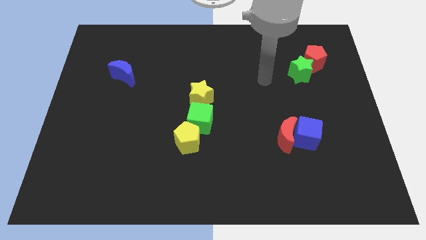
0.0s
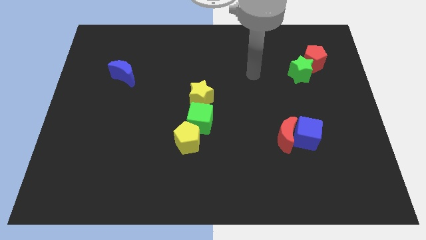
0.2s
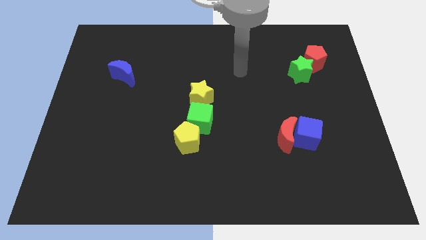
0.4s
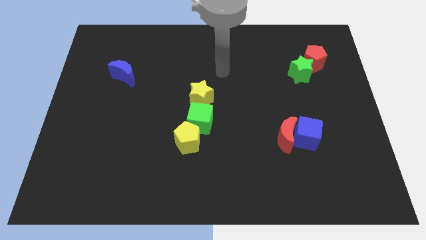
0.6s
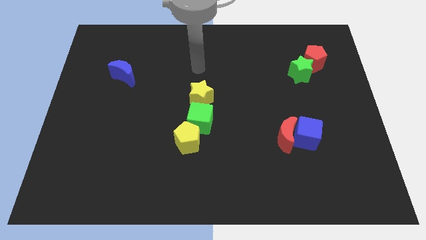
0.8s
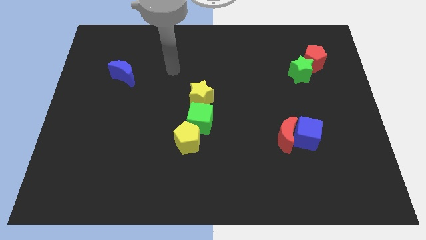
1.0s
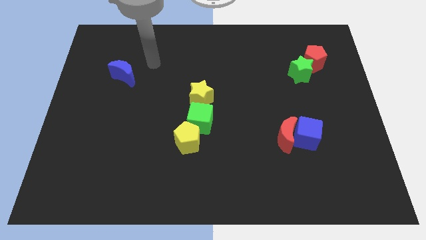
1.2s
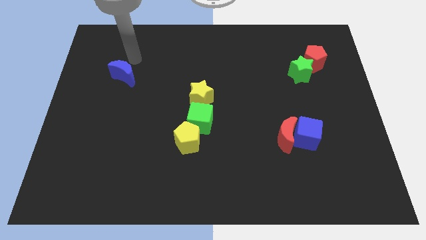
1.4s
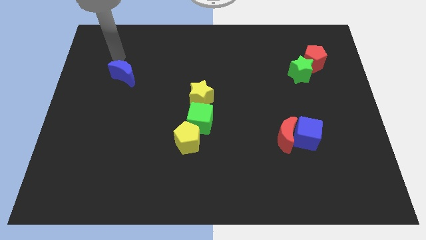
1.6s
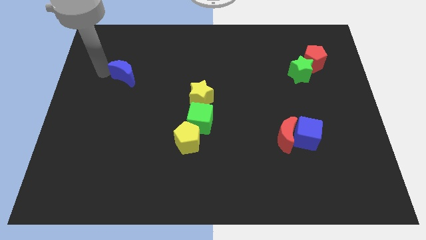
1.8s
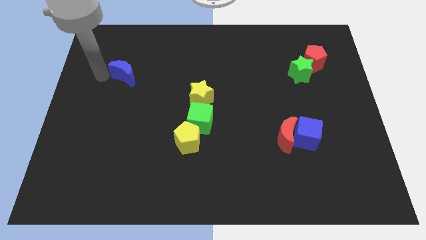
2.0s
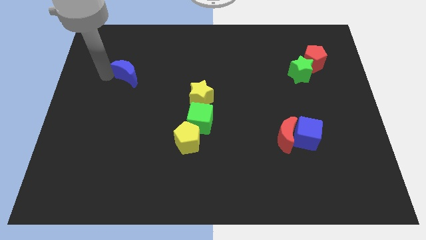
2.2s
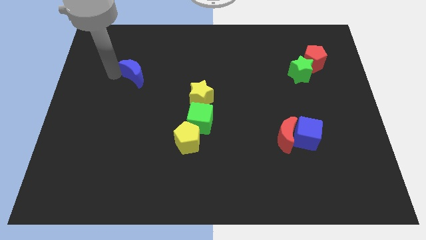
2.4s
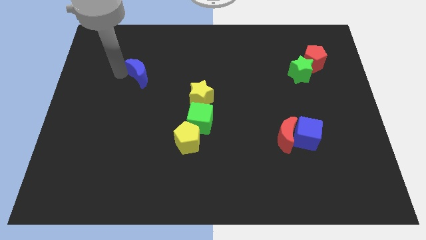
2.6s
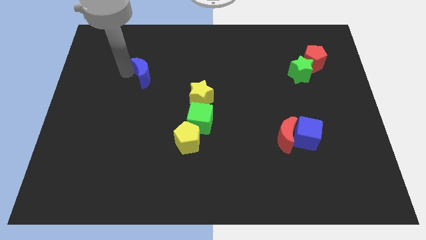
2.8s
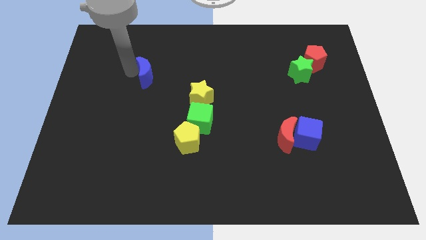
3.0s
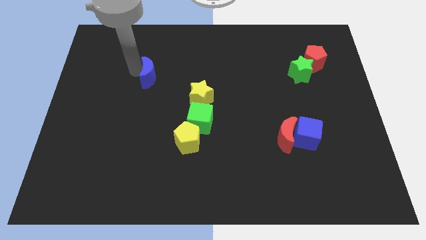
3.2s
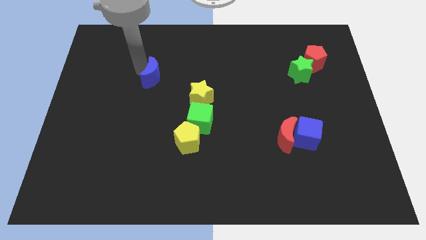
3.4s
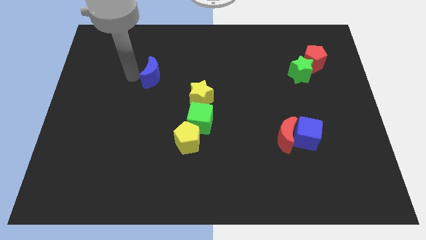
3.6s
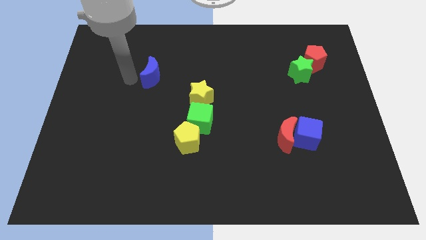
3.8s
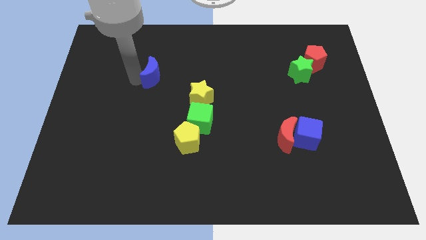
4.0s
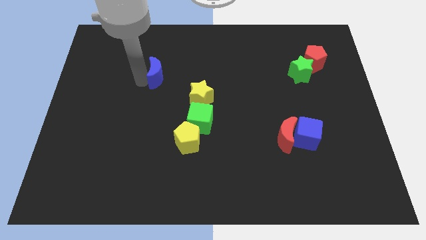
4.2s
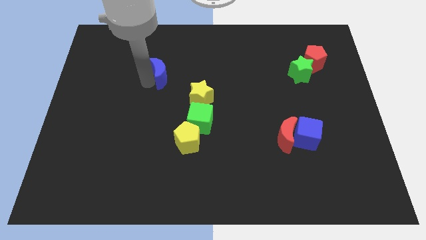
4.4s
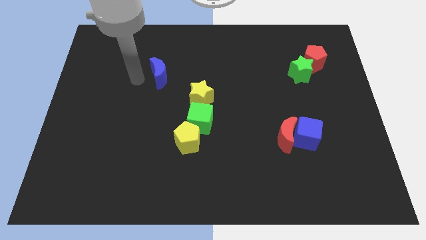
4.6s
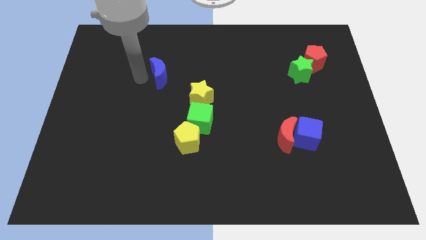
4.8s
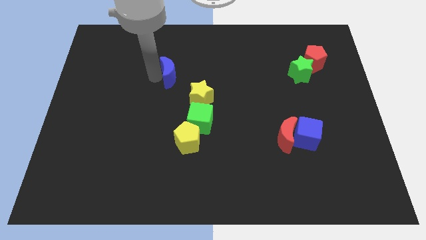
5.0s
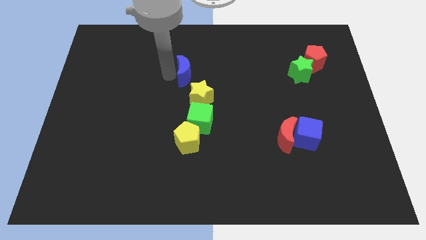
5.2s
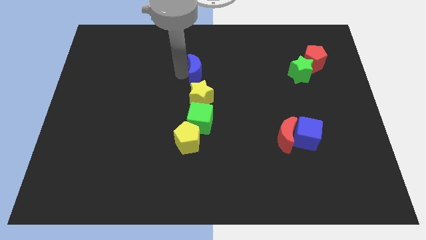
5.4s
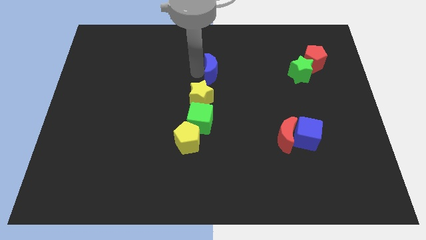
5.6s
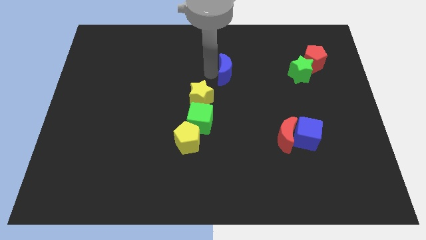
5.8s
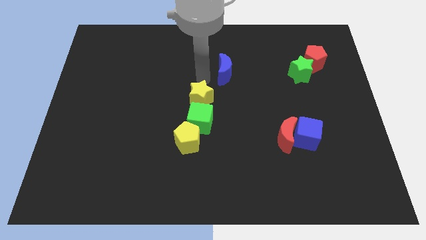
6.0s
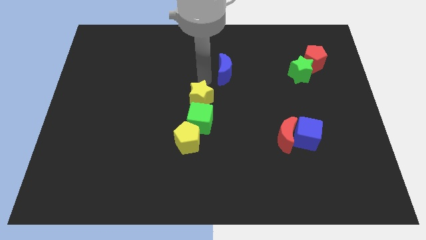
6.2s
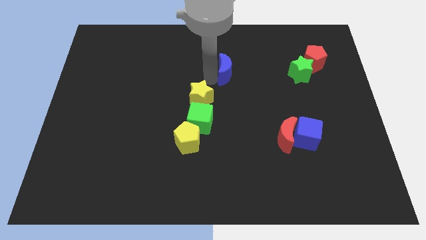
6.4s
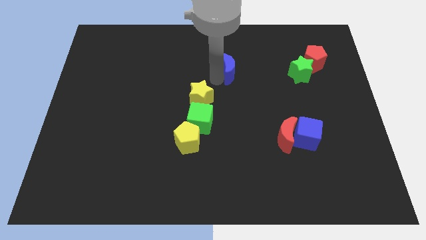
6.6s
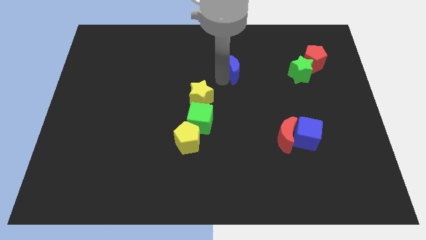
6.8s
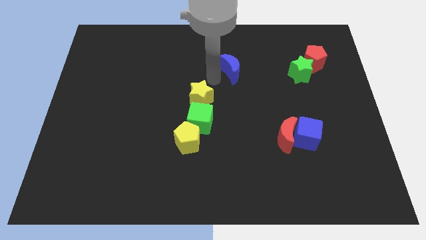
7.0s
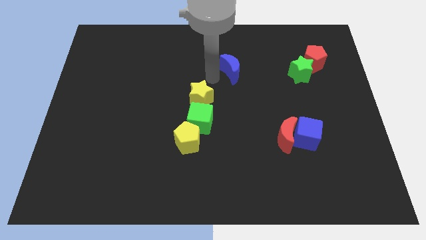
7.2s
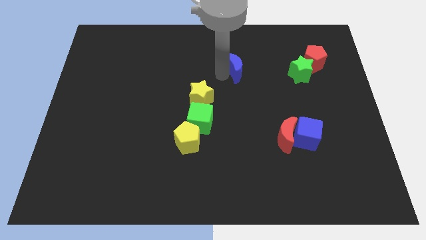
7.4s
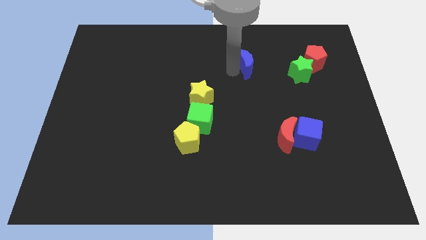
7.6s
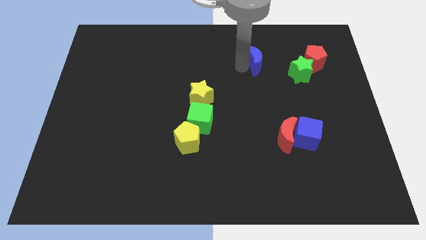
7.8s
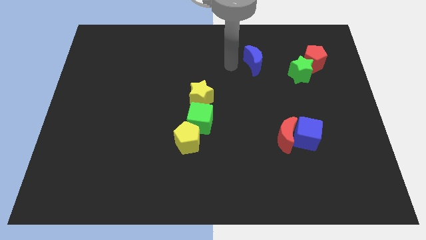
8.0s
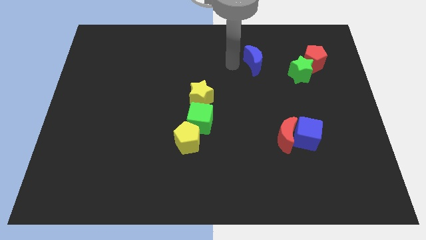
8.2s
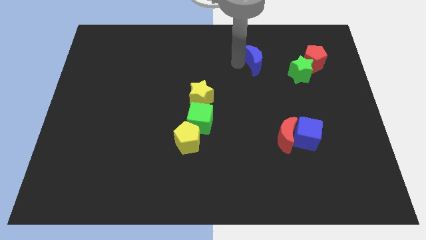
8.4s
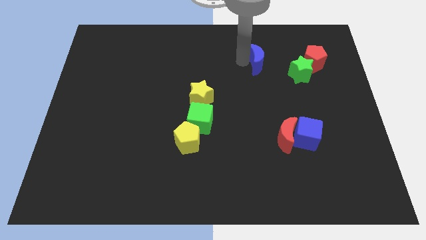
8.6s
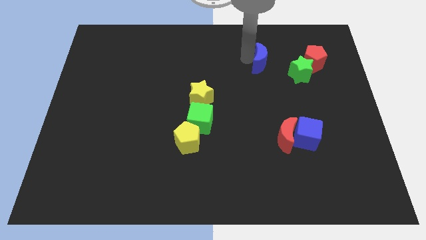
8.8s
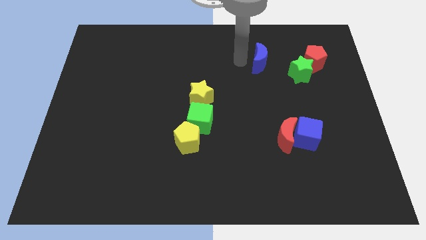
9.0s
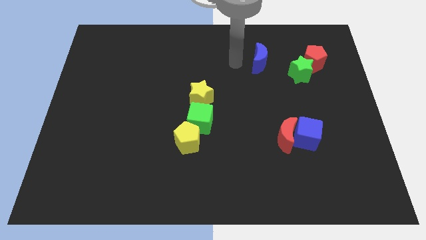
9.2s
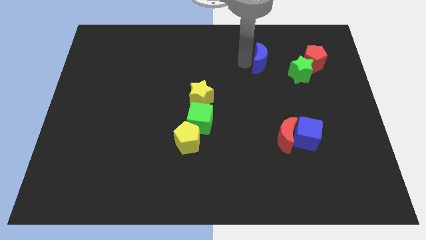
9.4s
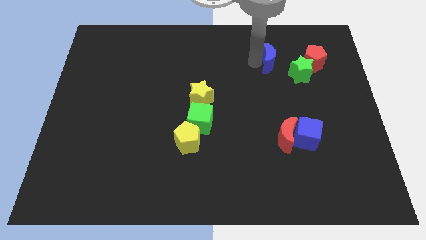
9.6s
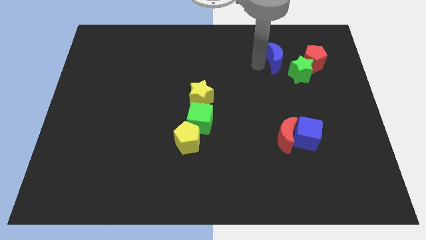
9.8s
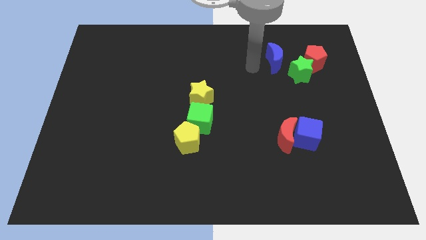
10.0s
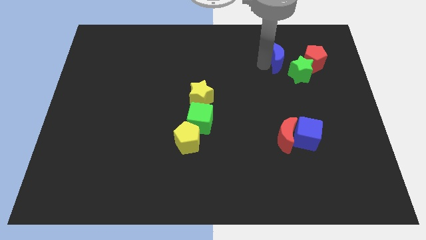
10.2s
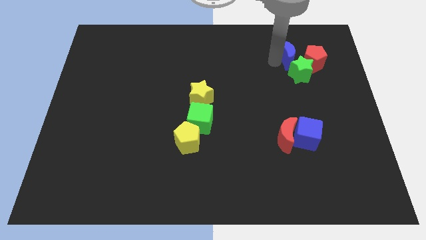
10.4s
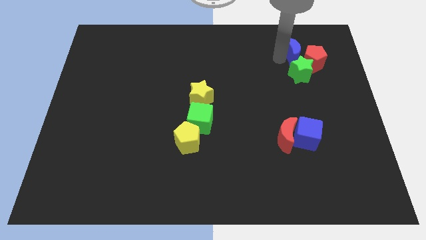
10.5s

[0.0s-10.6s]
put the blue moon next to the red pentagon

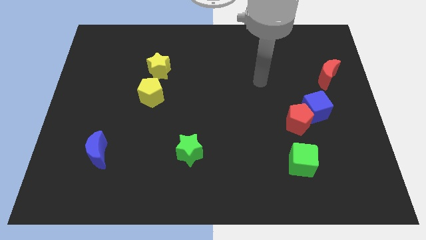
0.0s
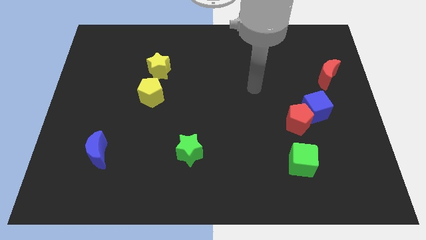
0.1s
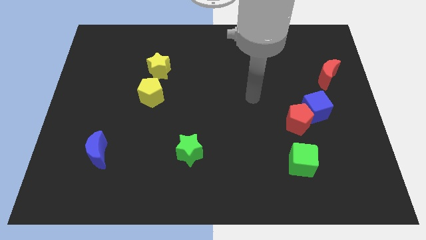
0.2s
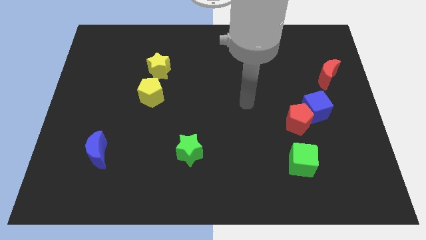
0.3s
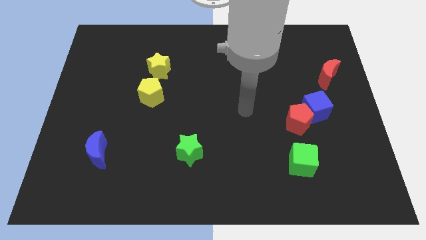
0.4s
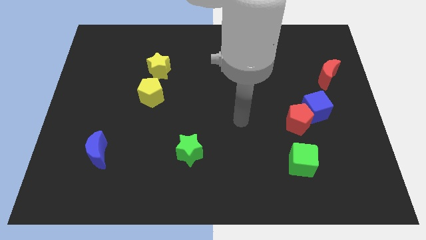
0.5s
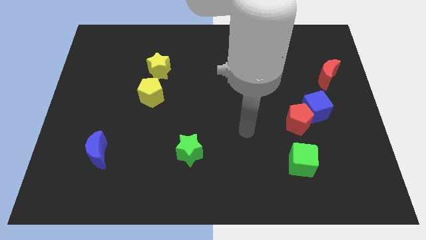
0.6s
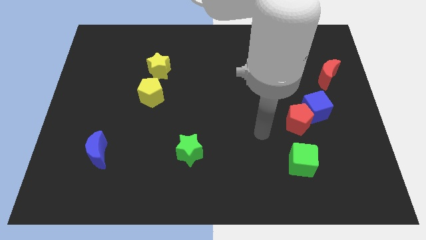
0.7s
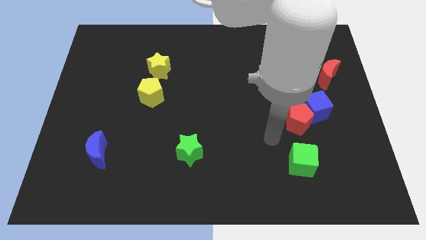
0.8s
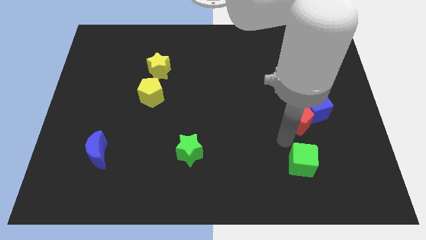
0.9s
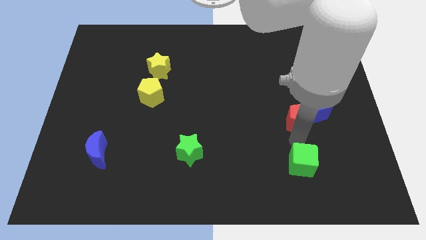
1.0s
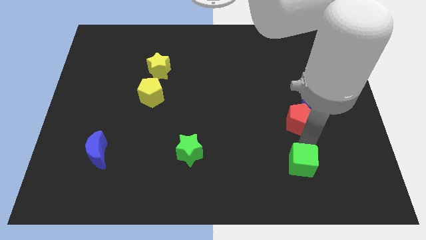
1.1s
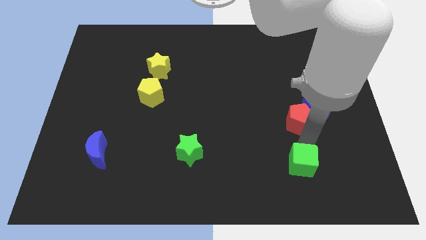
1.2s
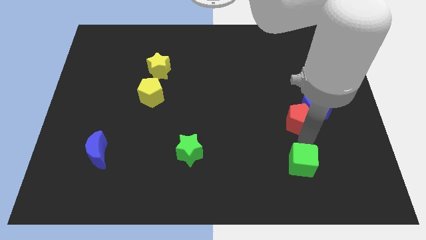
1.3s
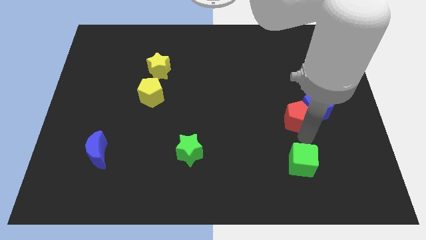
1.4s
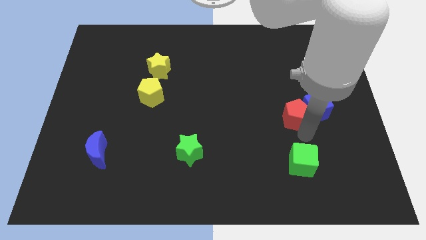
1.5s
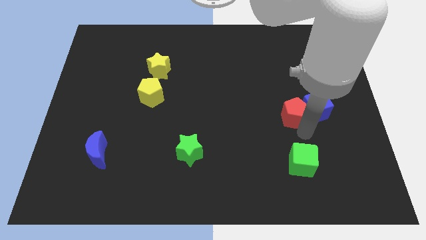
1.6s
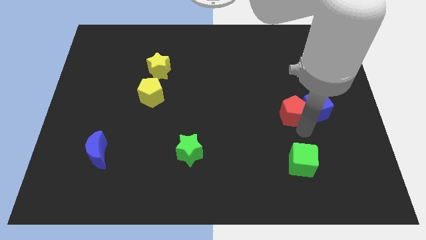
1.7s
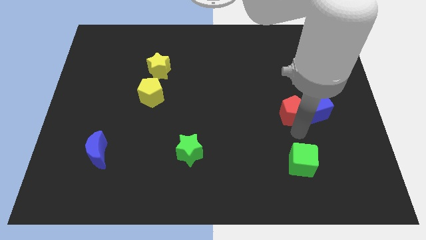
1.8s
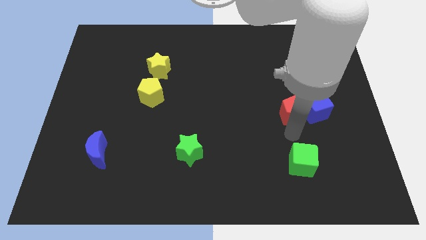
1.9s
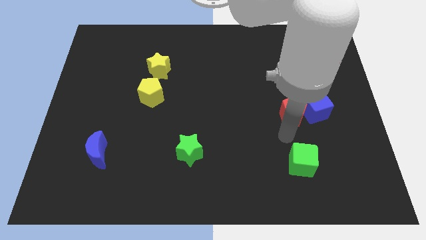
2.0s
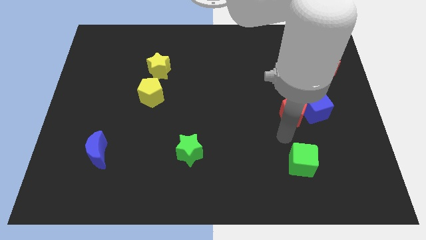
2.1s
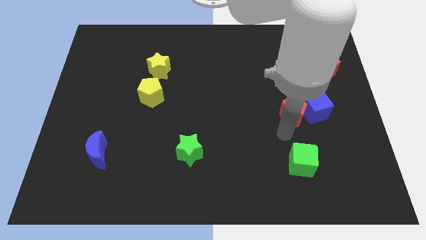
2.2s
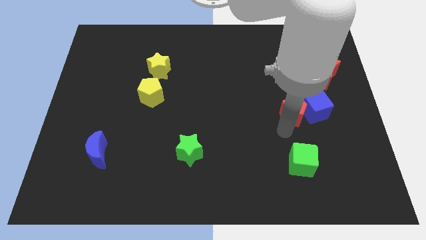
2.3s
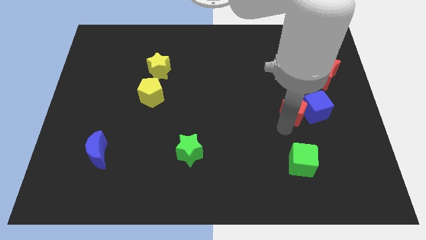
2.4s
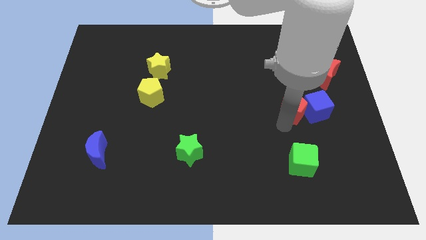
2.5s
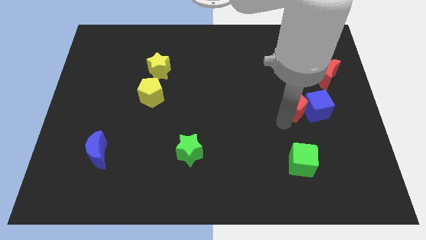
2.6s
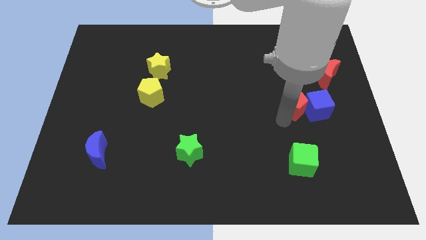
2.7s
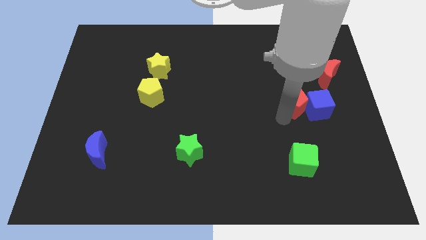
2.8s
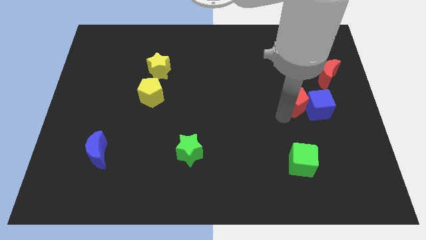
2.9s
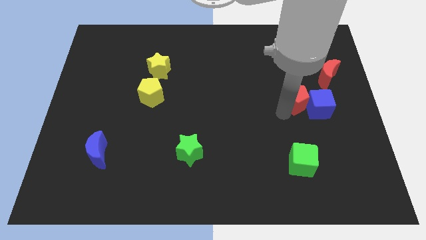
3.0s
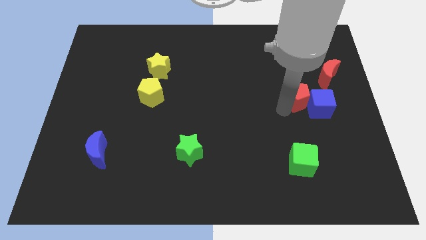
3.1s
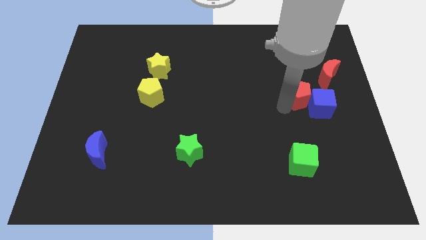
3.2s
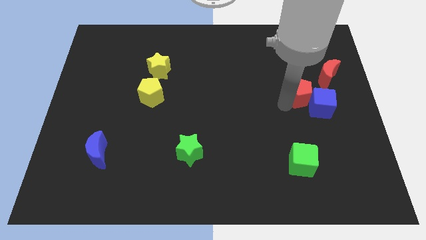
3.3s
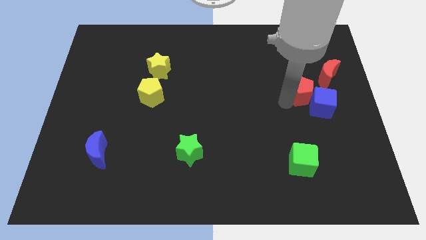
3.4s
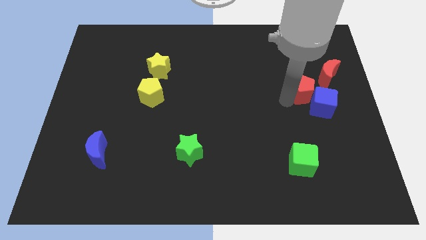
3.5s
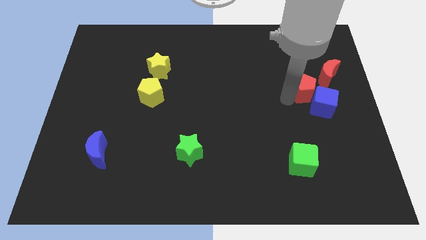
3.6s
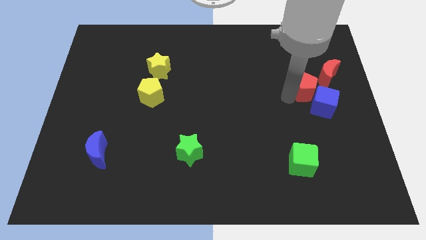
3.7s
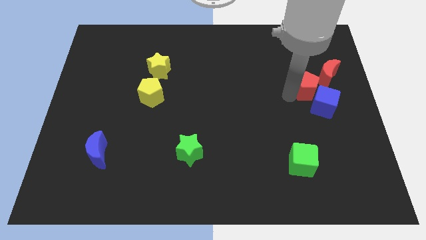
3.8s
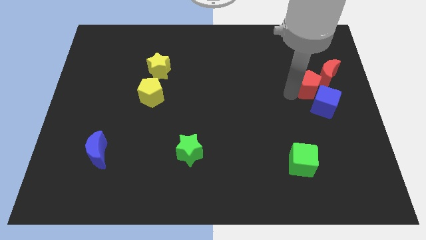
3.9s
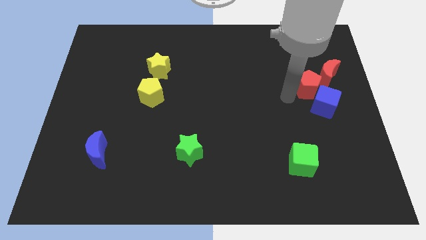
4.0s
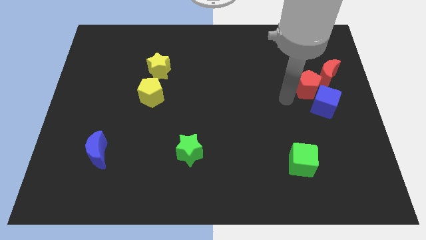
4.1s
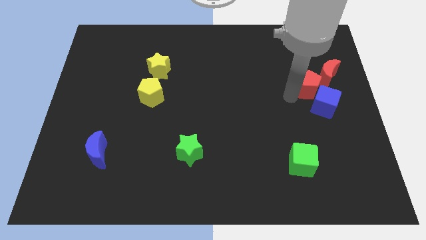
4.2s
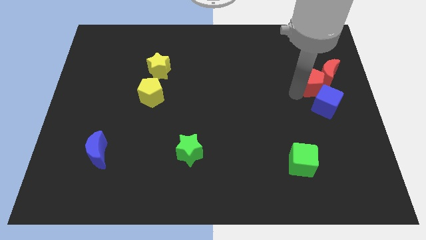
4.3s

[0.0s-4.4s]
push the red pentagon next to the red moon
